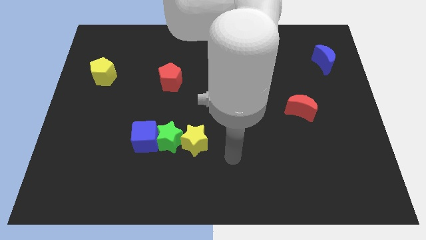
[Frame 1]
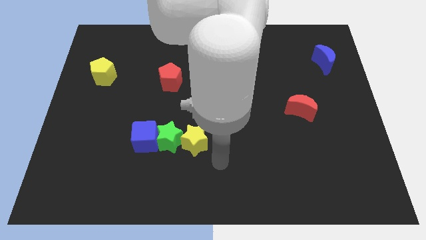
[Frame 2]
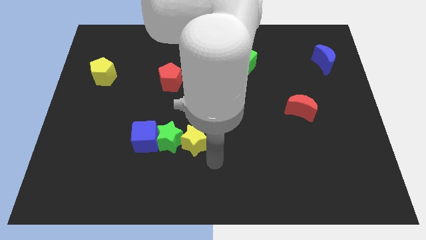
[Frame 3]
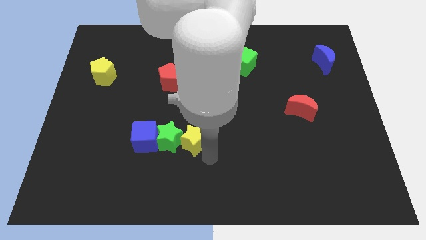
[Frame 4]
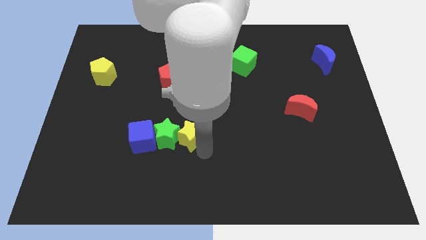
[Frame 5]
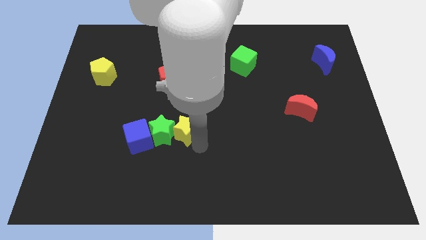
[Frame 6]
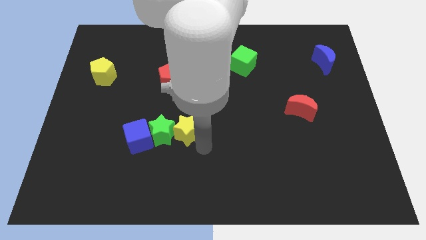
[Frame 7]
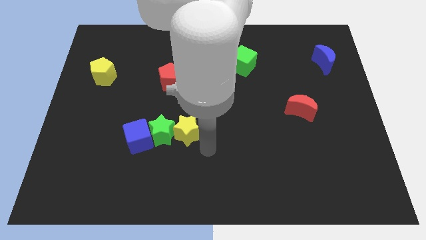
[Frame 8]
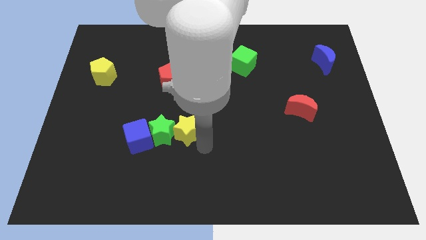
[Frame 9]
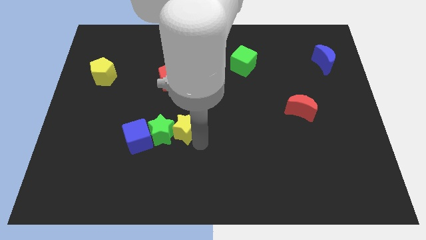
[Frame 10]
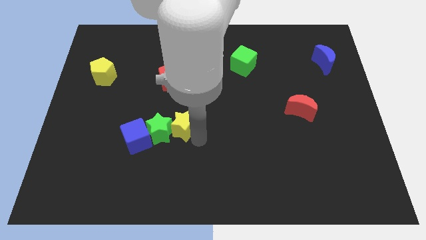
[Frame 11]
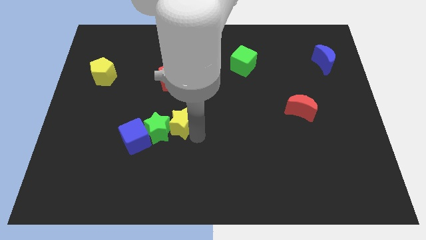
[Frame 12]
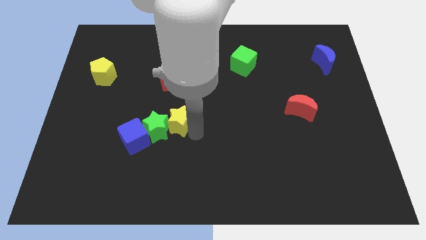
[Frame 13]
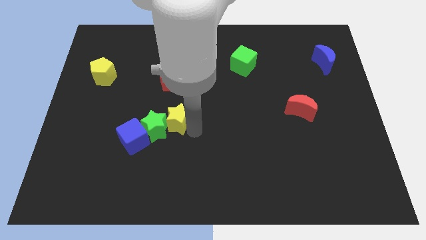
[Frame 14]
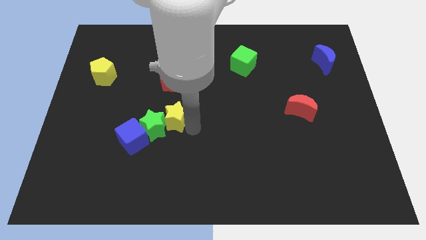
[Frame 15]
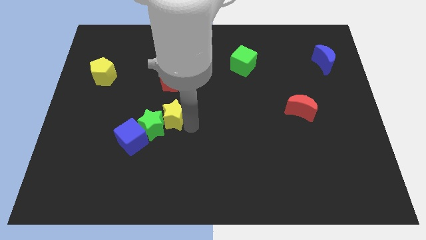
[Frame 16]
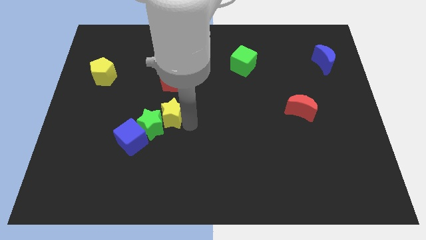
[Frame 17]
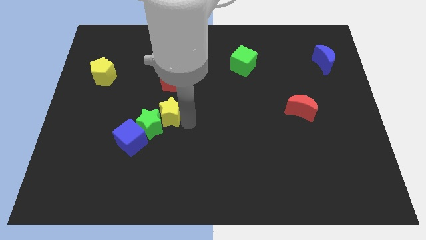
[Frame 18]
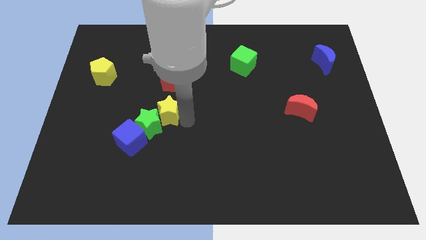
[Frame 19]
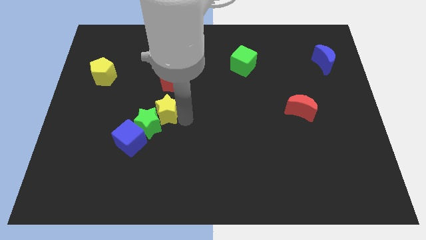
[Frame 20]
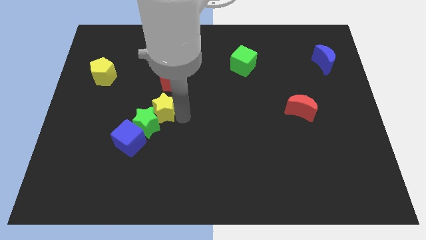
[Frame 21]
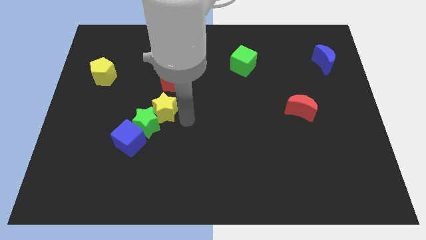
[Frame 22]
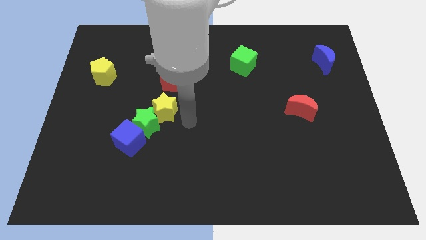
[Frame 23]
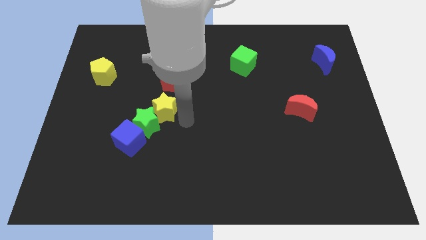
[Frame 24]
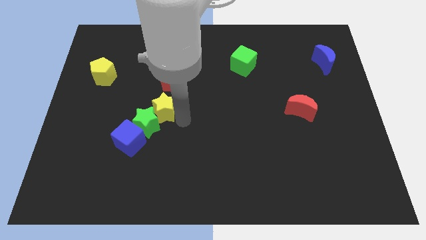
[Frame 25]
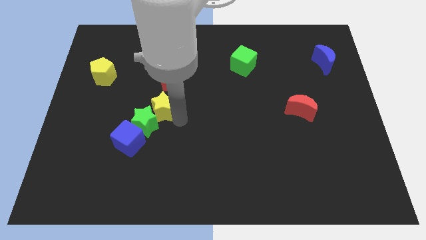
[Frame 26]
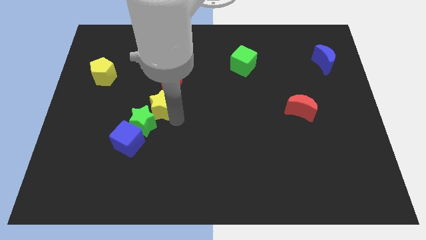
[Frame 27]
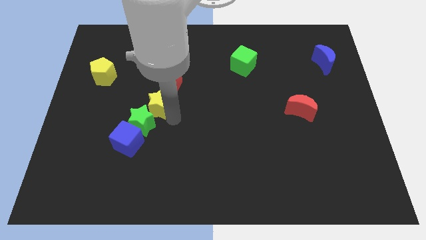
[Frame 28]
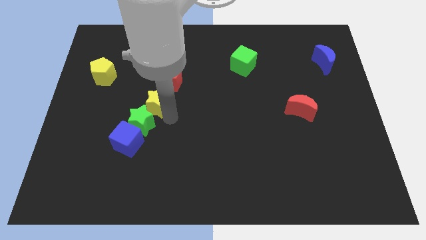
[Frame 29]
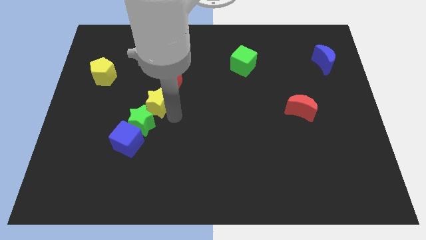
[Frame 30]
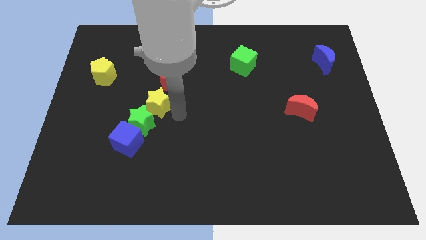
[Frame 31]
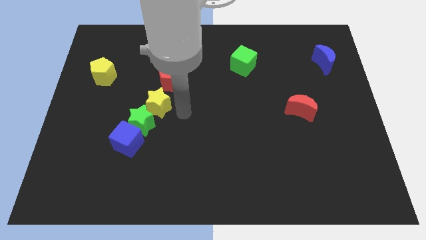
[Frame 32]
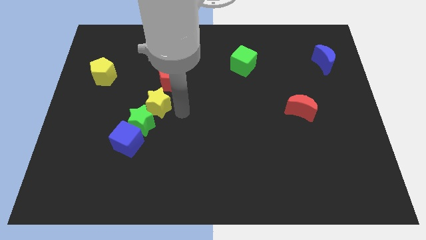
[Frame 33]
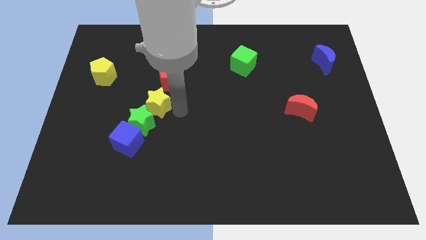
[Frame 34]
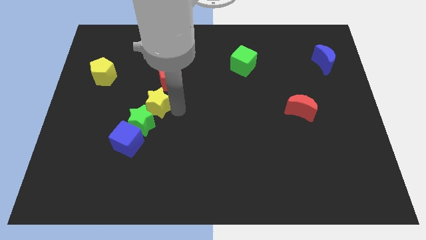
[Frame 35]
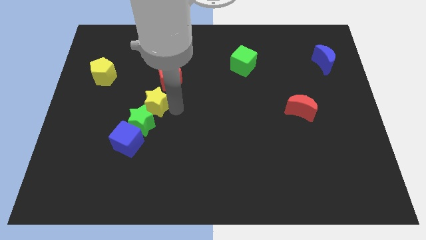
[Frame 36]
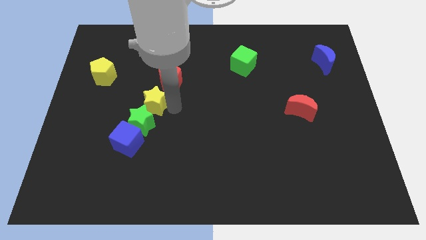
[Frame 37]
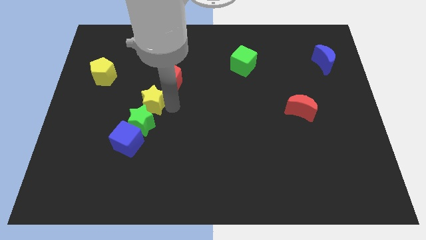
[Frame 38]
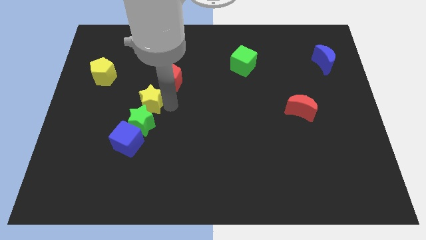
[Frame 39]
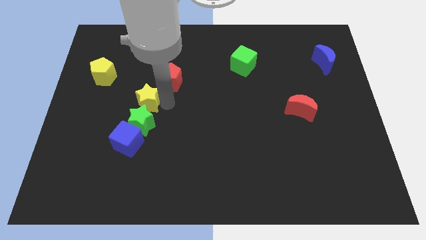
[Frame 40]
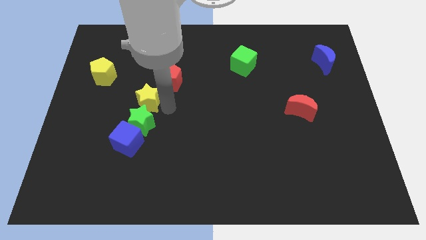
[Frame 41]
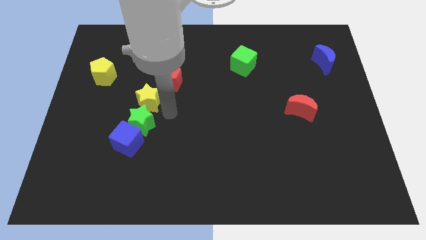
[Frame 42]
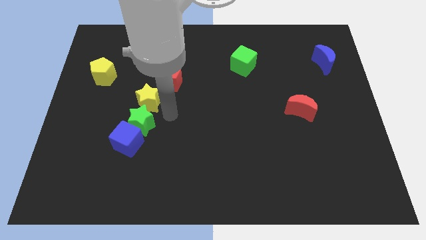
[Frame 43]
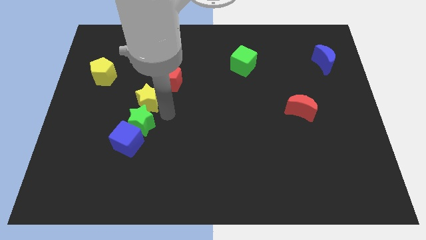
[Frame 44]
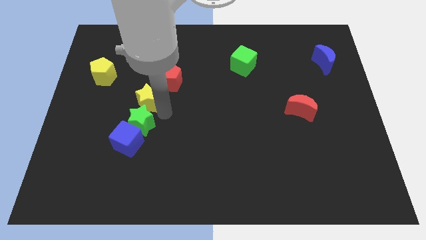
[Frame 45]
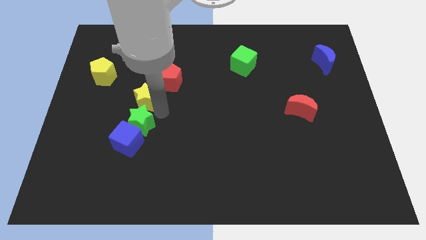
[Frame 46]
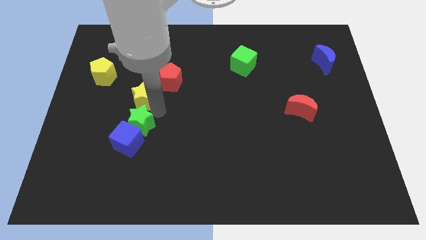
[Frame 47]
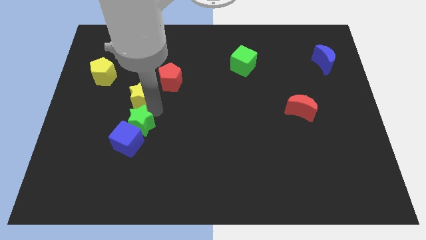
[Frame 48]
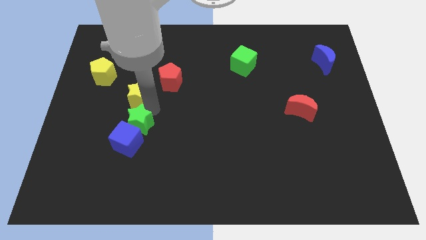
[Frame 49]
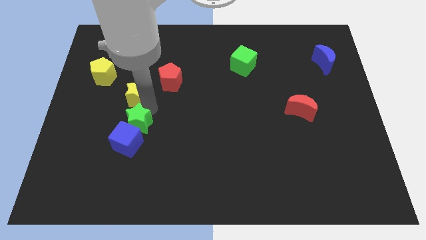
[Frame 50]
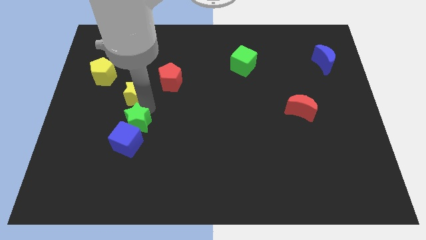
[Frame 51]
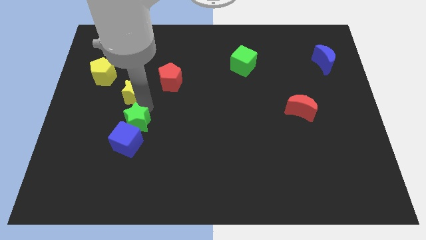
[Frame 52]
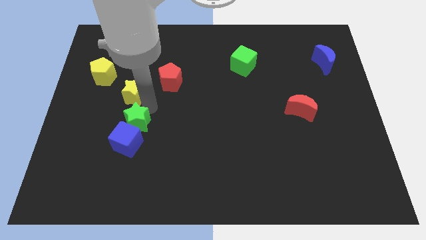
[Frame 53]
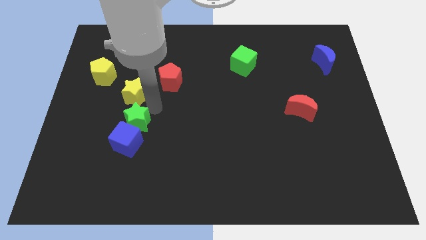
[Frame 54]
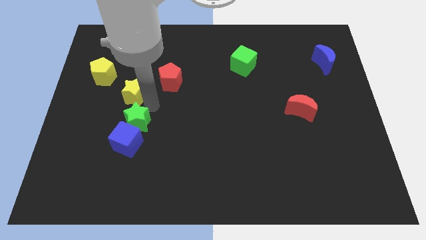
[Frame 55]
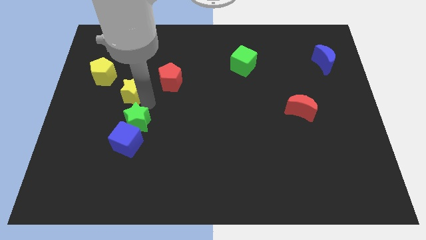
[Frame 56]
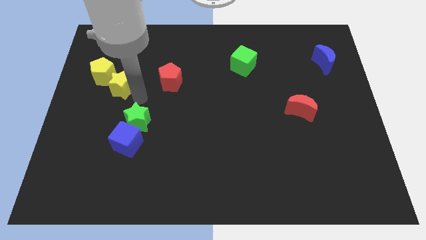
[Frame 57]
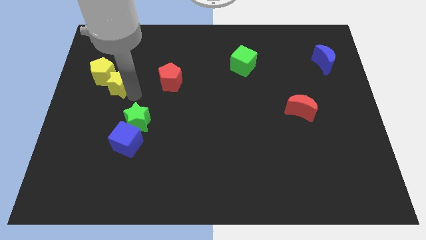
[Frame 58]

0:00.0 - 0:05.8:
push the yellow star to the yellow pentagon

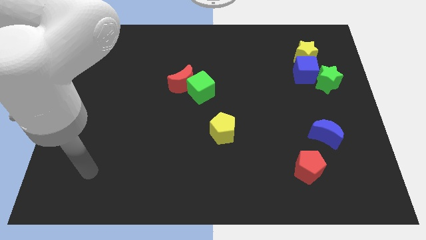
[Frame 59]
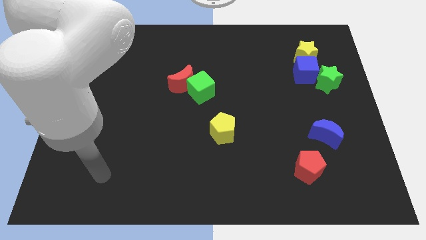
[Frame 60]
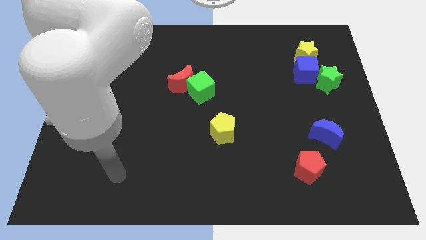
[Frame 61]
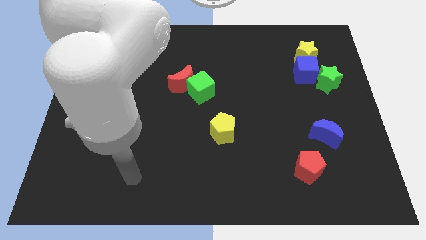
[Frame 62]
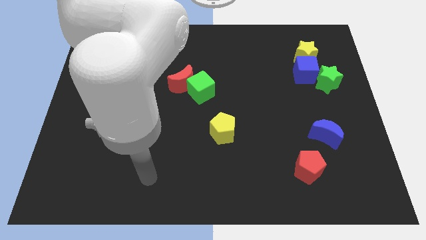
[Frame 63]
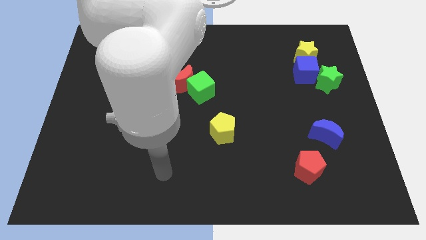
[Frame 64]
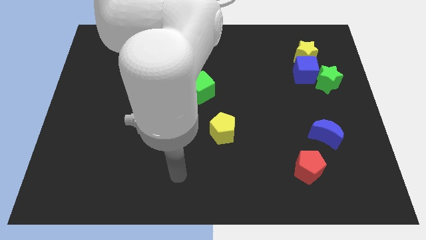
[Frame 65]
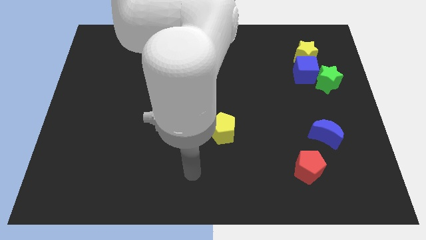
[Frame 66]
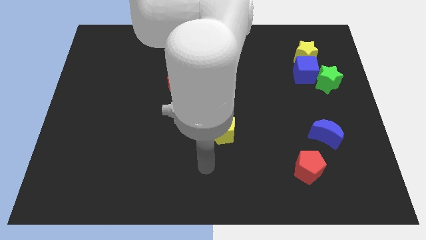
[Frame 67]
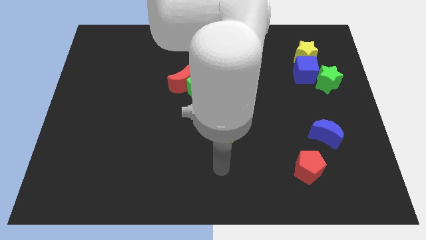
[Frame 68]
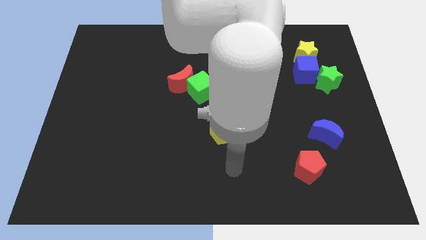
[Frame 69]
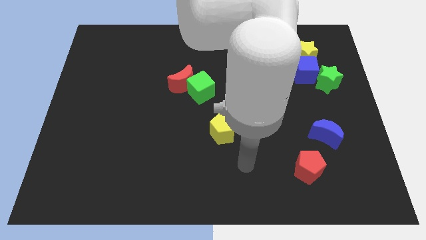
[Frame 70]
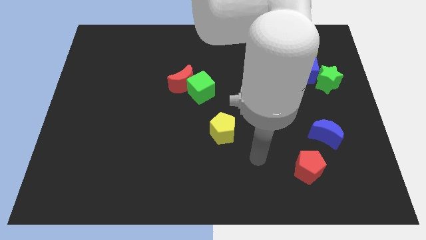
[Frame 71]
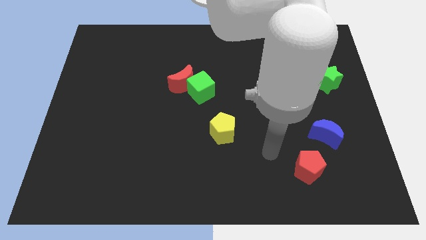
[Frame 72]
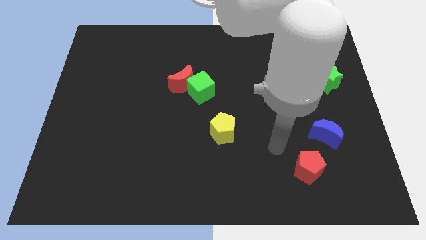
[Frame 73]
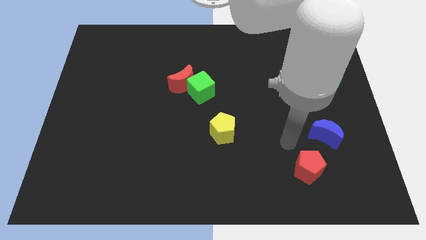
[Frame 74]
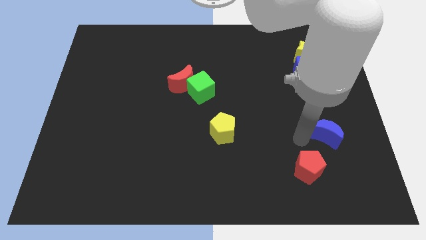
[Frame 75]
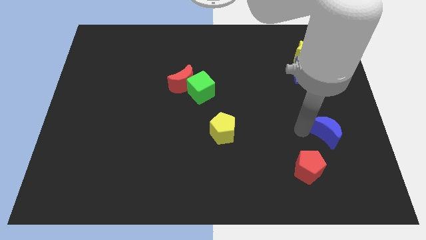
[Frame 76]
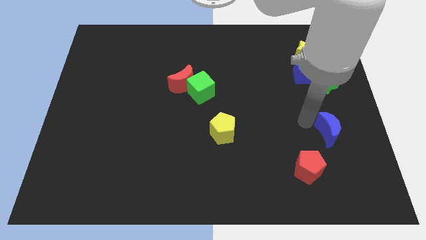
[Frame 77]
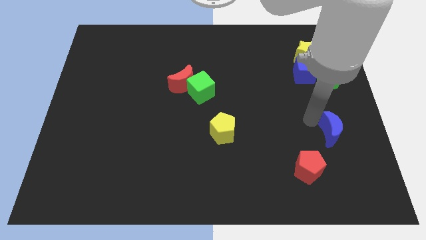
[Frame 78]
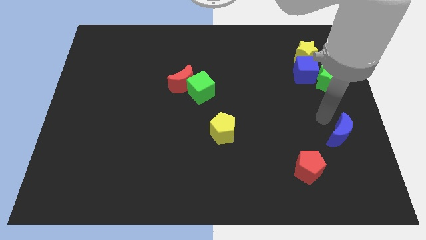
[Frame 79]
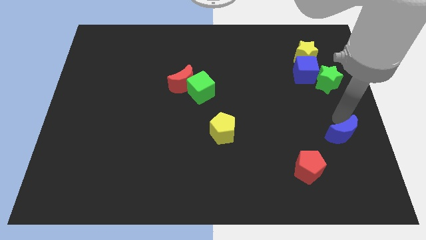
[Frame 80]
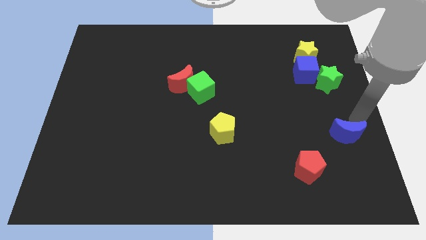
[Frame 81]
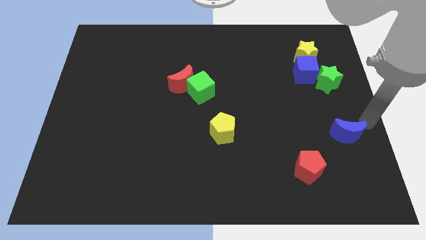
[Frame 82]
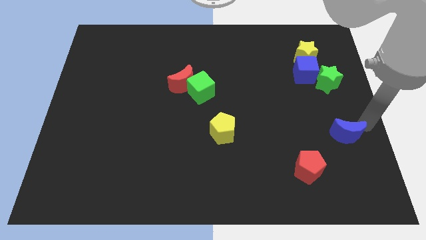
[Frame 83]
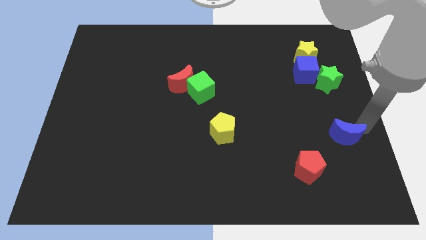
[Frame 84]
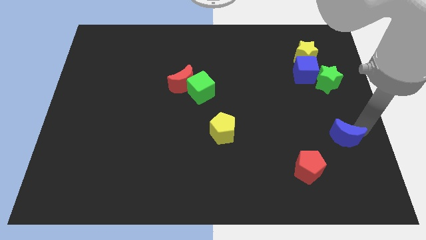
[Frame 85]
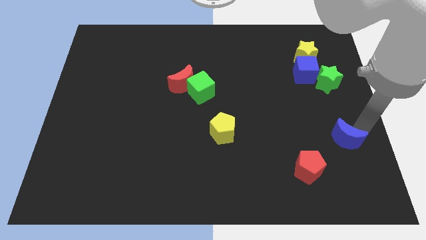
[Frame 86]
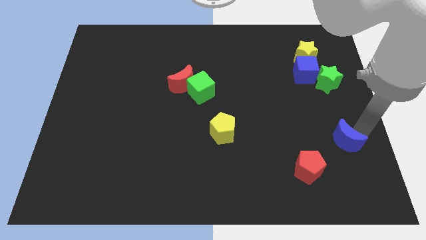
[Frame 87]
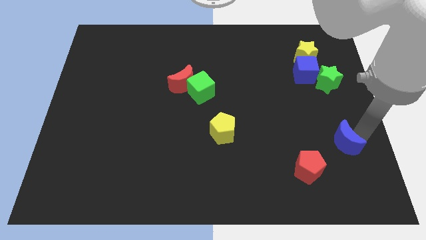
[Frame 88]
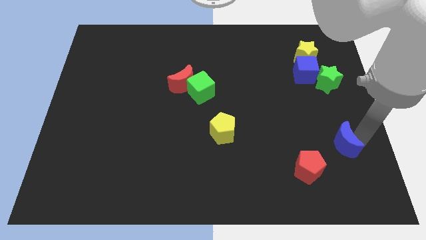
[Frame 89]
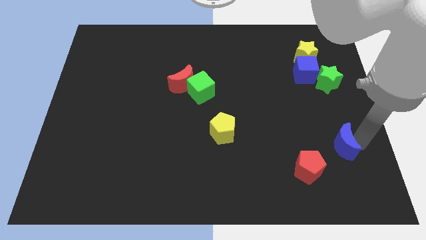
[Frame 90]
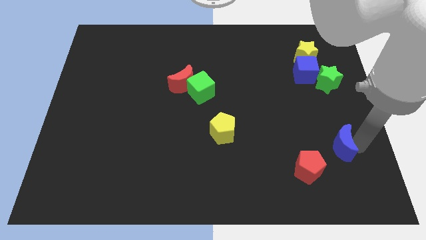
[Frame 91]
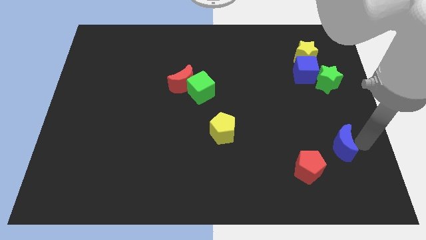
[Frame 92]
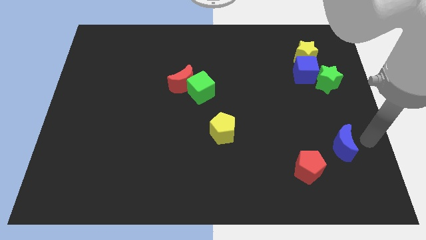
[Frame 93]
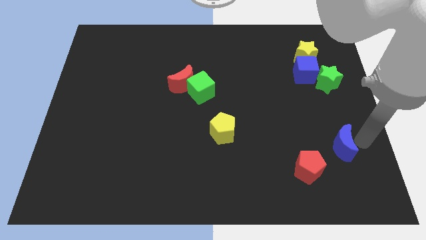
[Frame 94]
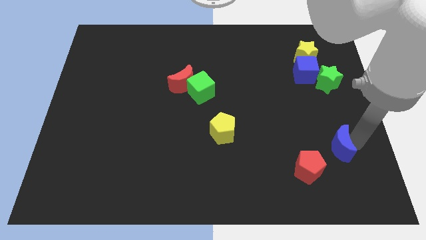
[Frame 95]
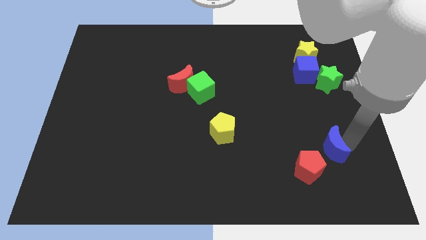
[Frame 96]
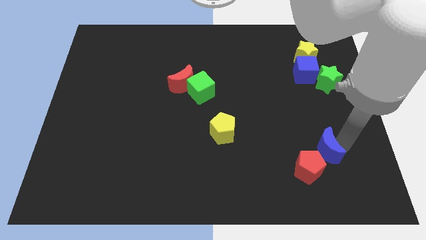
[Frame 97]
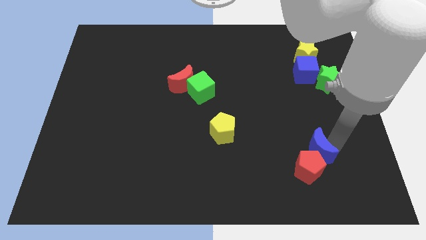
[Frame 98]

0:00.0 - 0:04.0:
slide the blue moon next to the red pentagon
